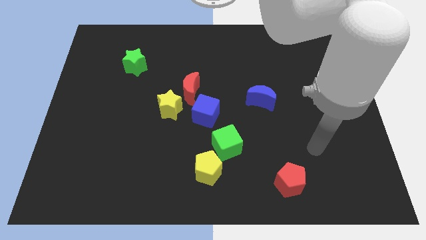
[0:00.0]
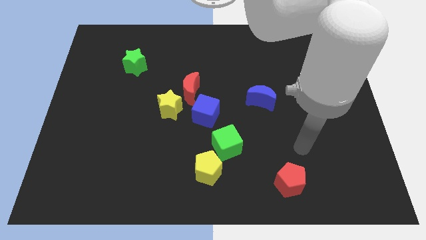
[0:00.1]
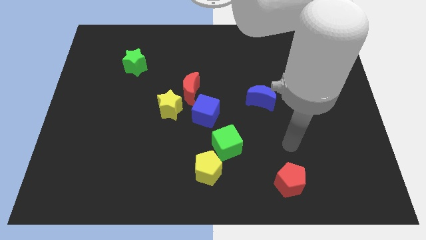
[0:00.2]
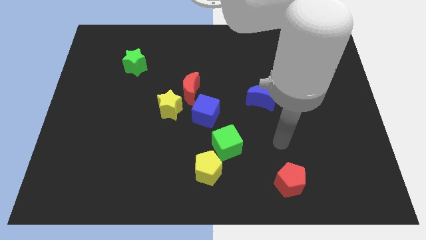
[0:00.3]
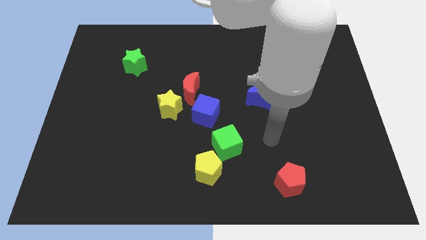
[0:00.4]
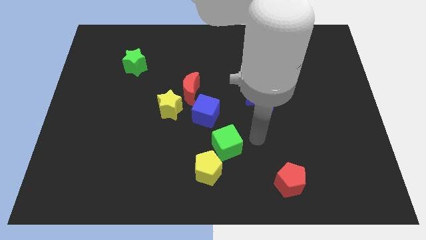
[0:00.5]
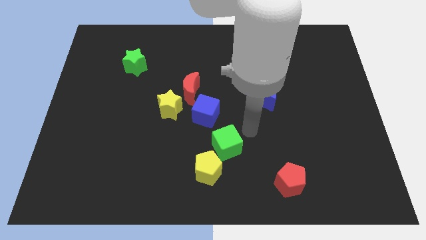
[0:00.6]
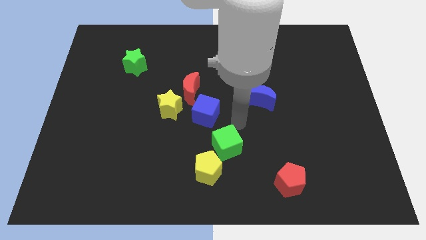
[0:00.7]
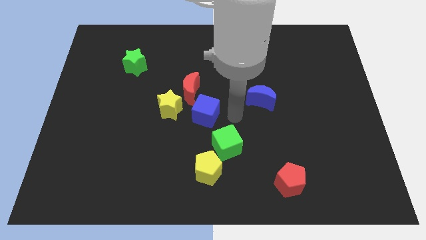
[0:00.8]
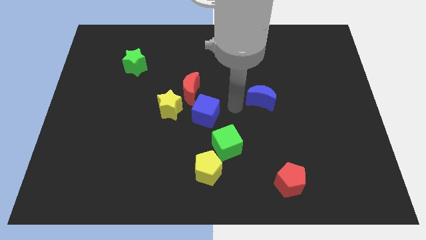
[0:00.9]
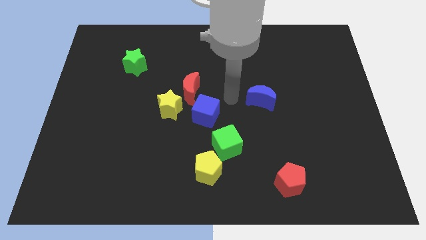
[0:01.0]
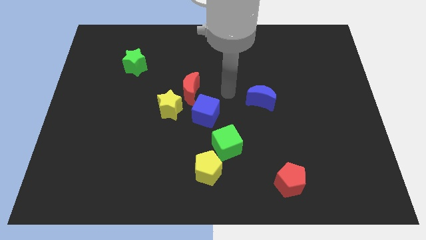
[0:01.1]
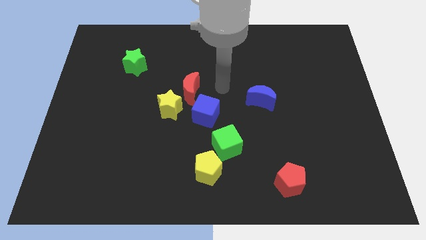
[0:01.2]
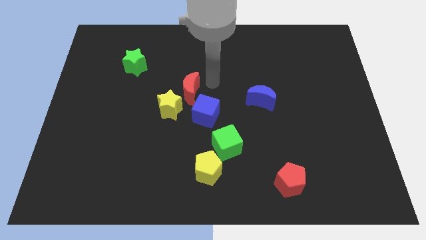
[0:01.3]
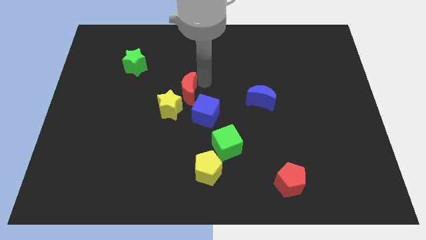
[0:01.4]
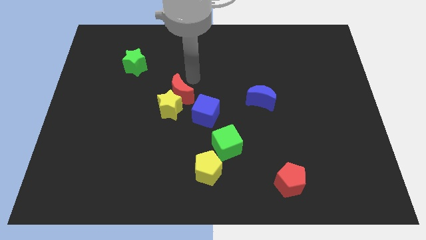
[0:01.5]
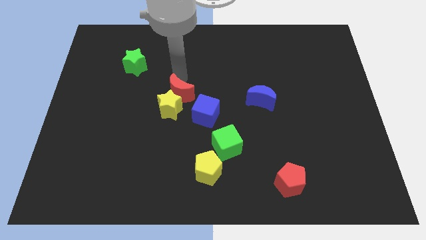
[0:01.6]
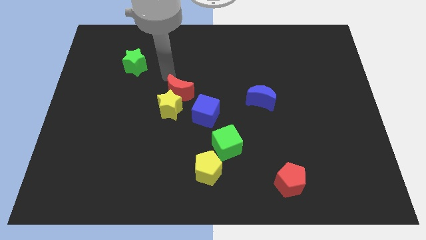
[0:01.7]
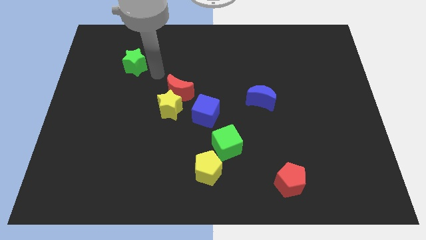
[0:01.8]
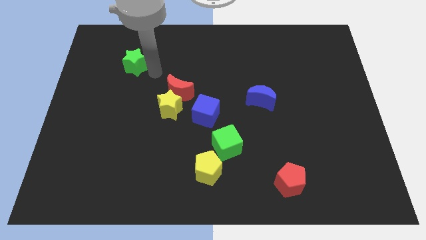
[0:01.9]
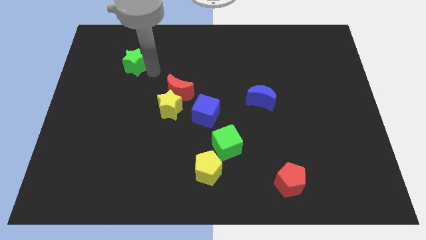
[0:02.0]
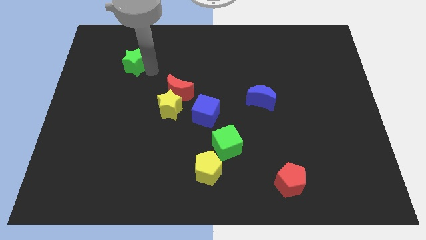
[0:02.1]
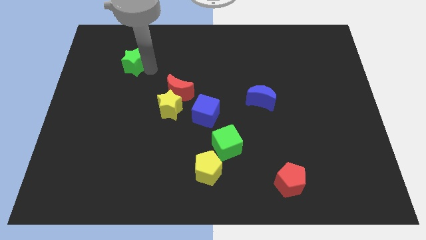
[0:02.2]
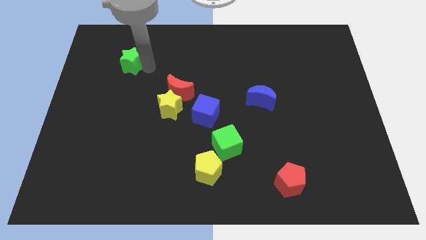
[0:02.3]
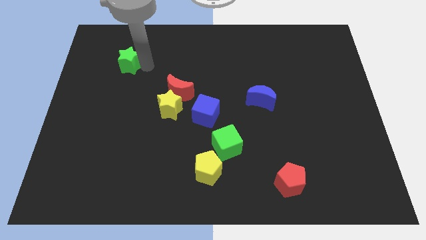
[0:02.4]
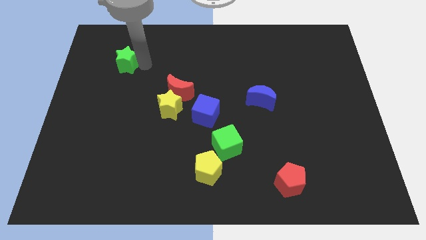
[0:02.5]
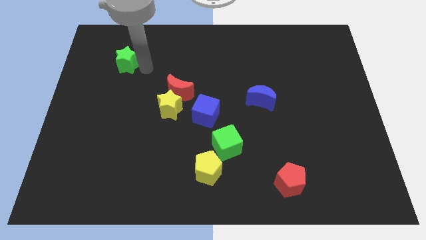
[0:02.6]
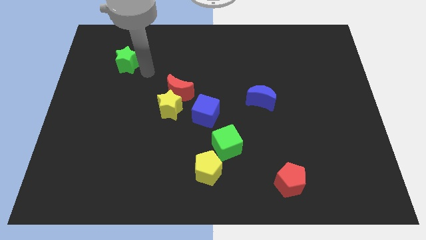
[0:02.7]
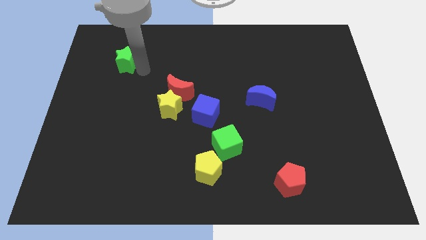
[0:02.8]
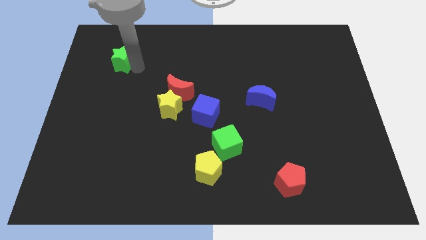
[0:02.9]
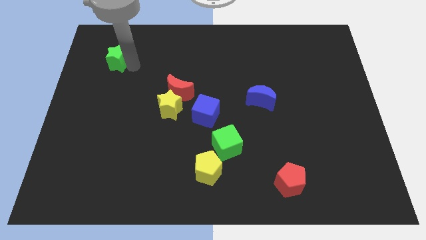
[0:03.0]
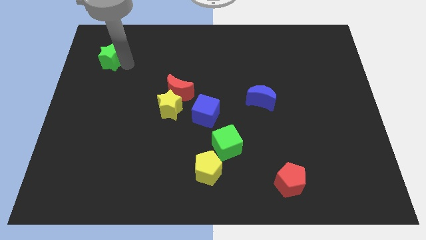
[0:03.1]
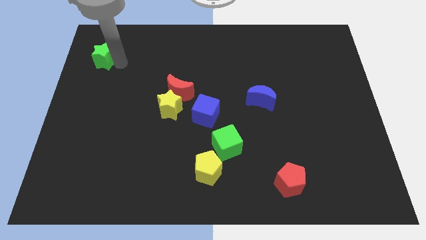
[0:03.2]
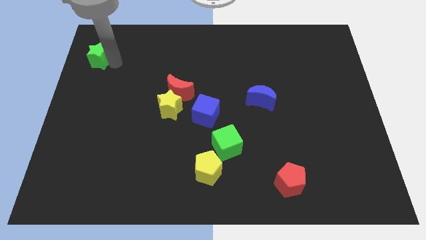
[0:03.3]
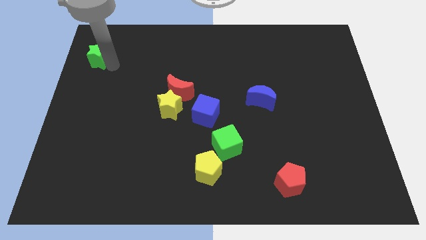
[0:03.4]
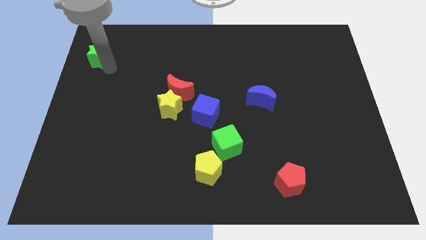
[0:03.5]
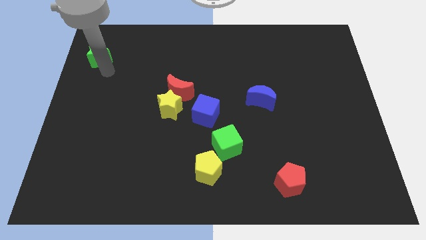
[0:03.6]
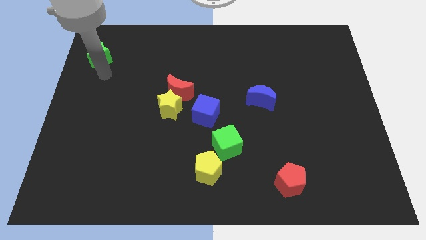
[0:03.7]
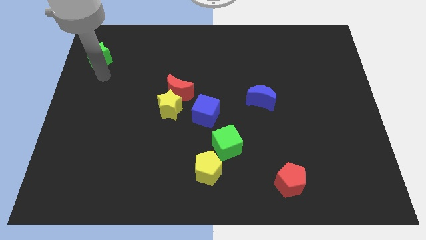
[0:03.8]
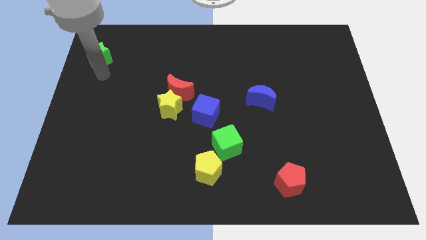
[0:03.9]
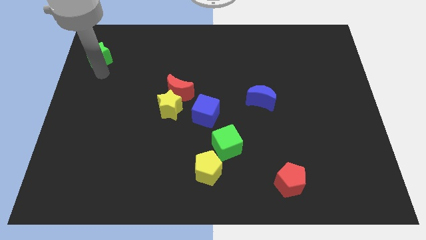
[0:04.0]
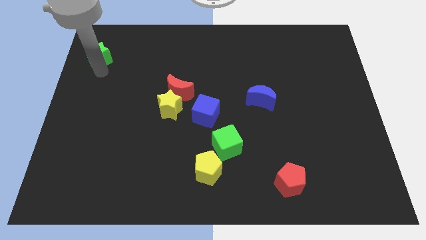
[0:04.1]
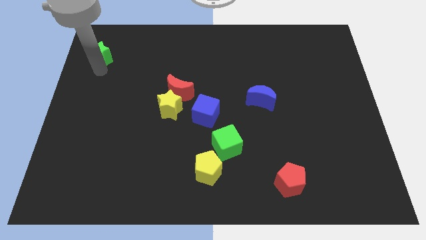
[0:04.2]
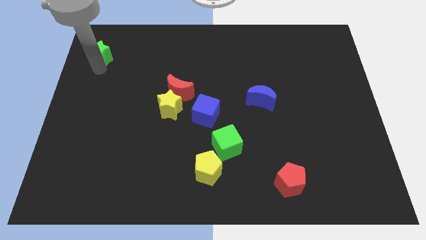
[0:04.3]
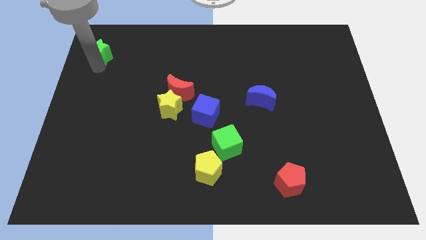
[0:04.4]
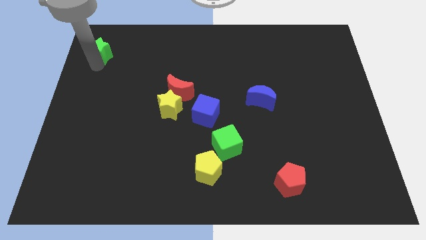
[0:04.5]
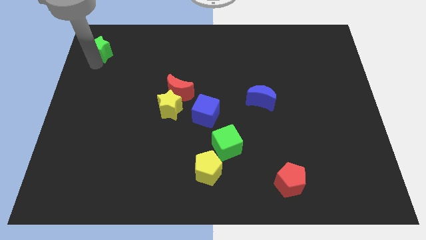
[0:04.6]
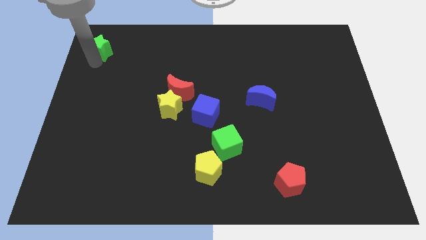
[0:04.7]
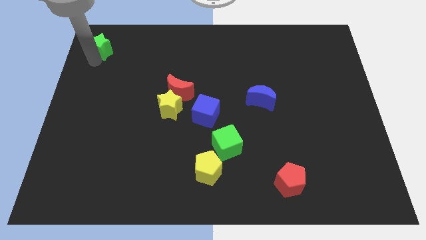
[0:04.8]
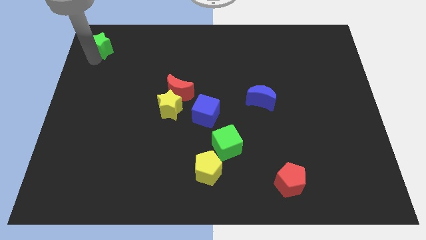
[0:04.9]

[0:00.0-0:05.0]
slide the green star to the top left corner

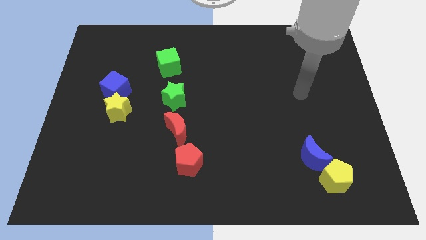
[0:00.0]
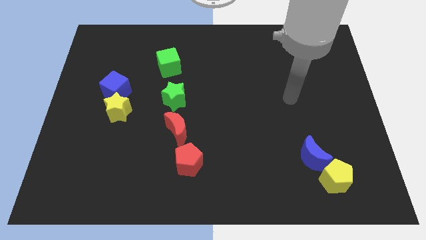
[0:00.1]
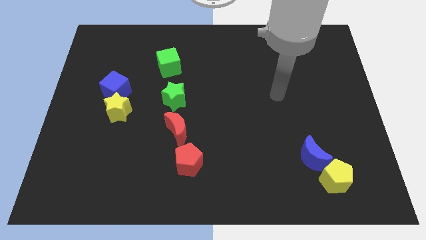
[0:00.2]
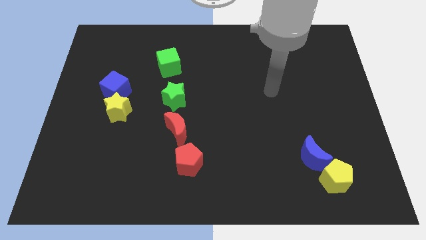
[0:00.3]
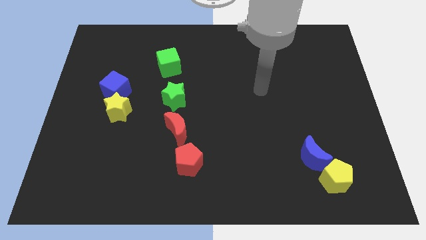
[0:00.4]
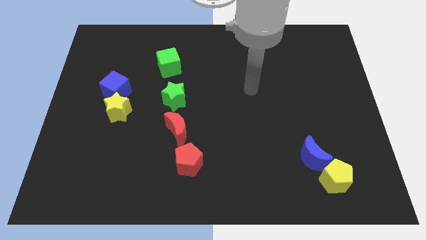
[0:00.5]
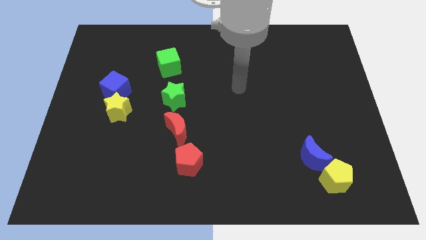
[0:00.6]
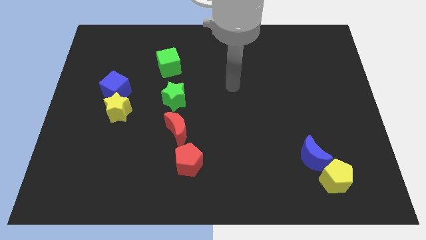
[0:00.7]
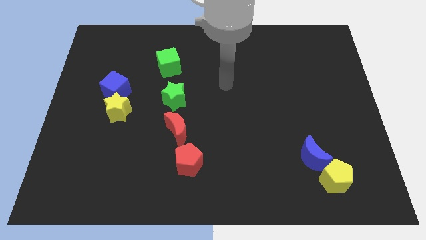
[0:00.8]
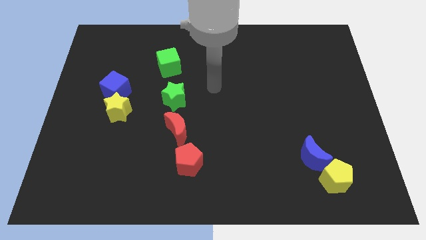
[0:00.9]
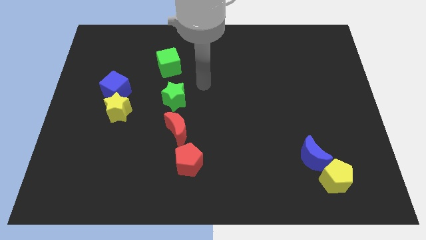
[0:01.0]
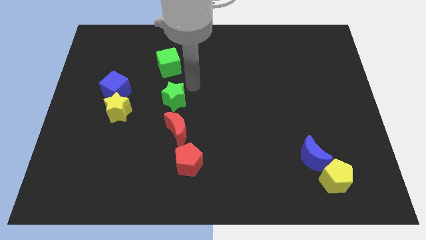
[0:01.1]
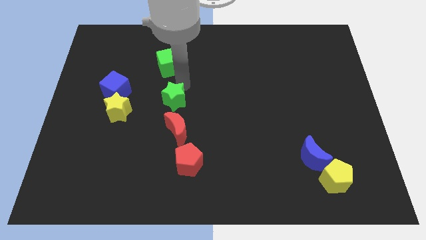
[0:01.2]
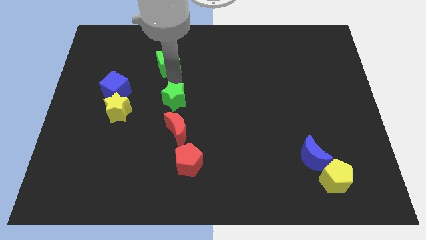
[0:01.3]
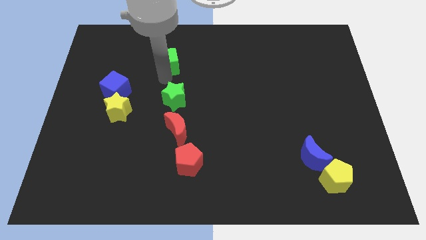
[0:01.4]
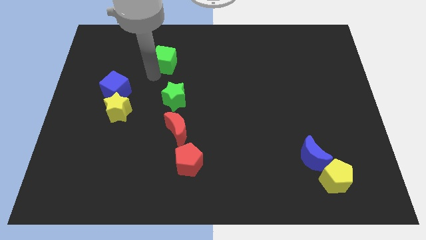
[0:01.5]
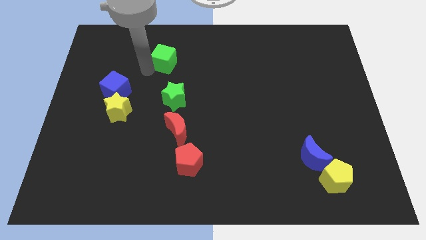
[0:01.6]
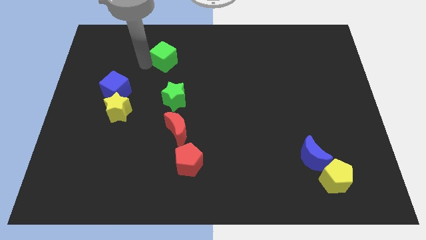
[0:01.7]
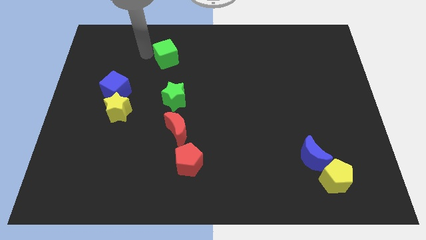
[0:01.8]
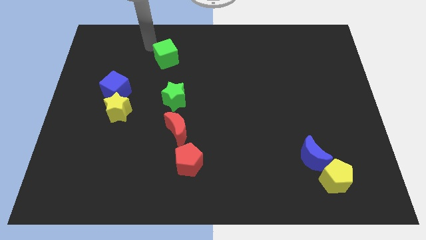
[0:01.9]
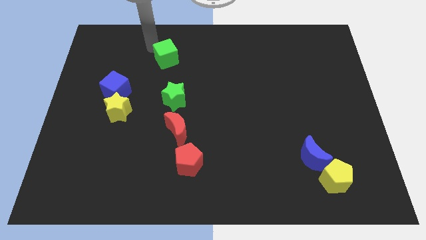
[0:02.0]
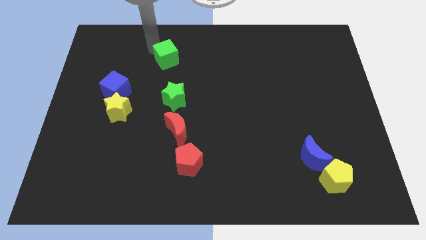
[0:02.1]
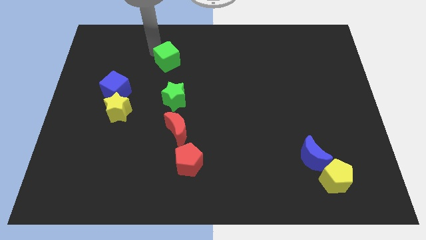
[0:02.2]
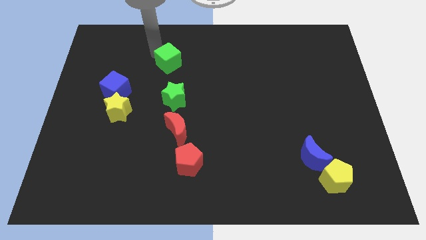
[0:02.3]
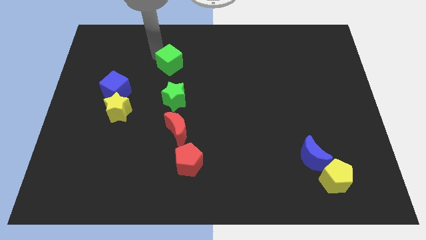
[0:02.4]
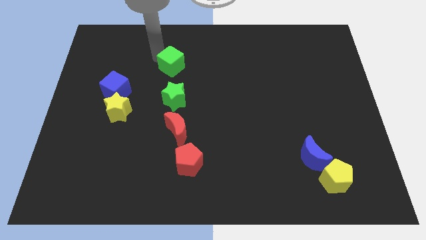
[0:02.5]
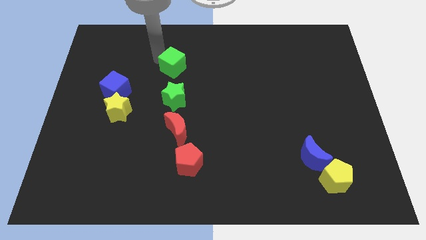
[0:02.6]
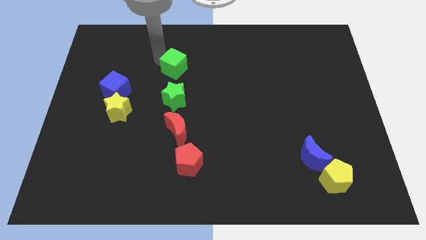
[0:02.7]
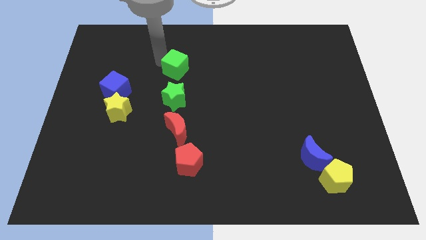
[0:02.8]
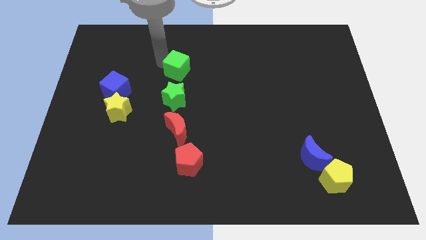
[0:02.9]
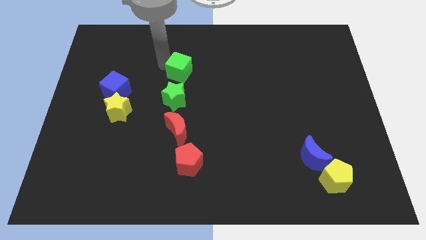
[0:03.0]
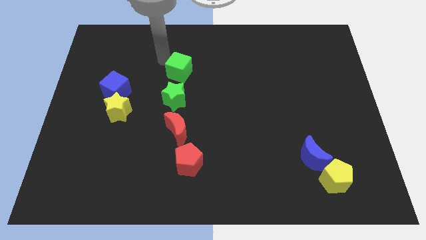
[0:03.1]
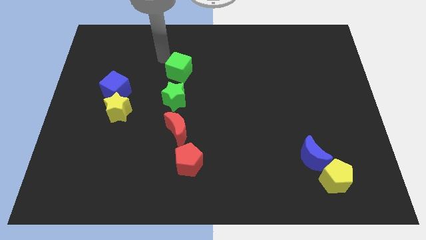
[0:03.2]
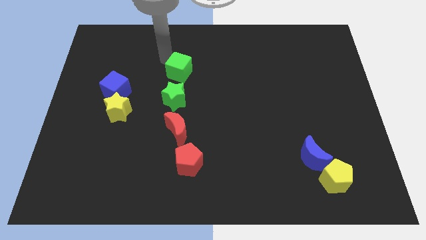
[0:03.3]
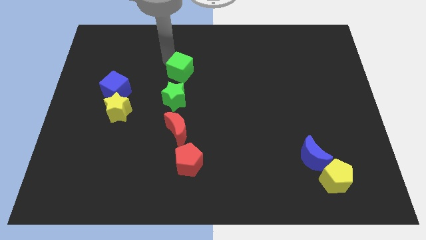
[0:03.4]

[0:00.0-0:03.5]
move the green cube to the center of the board
